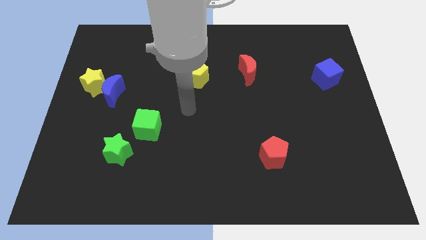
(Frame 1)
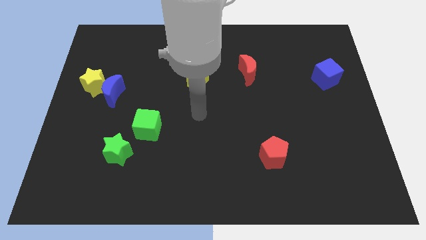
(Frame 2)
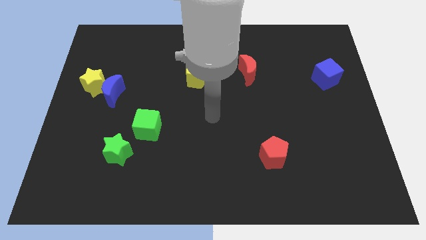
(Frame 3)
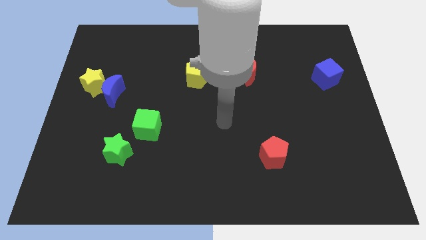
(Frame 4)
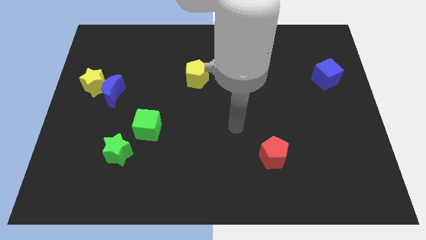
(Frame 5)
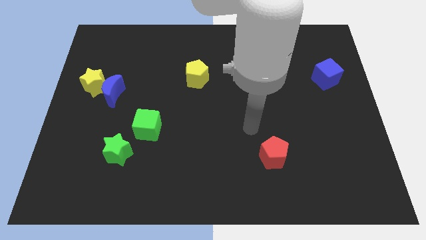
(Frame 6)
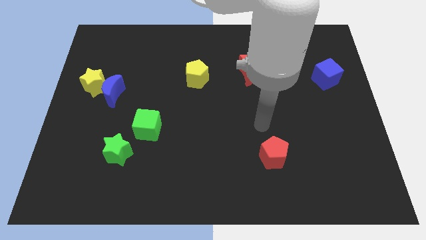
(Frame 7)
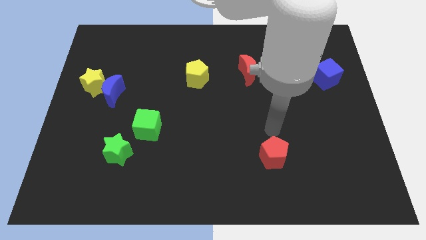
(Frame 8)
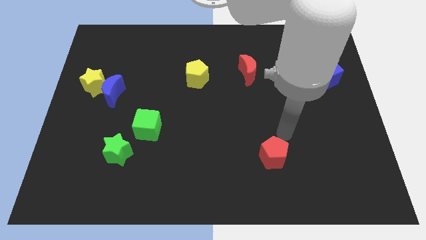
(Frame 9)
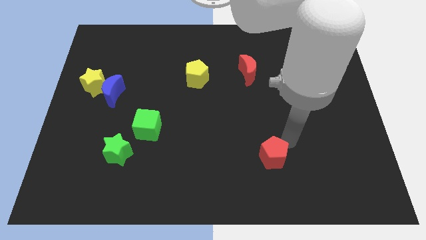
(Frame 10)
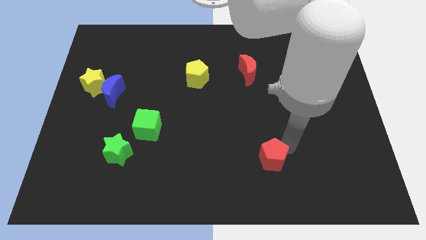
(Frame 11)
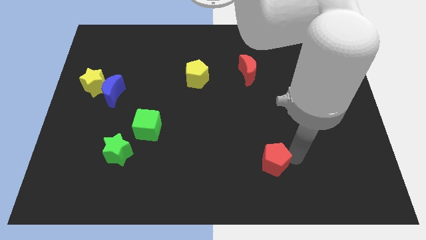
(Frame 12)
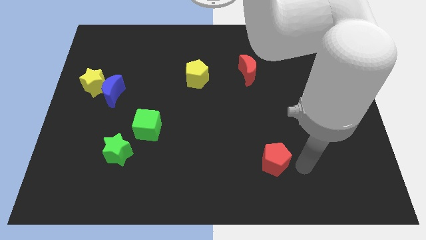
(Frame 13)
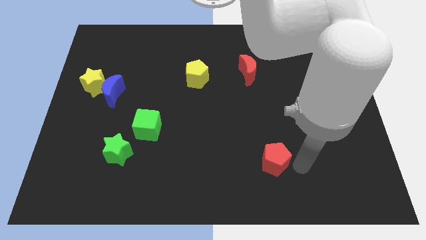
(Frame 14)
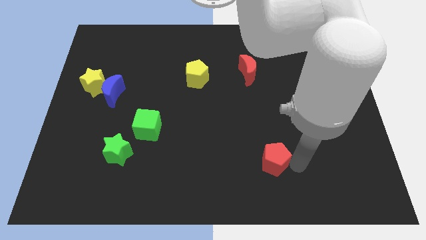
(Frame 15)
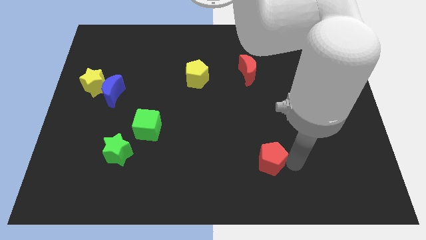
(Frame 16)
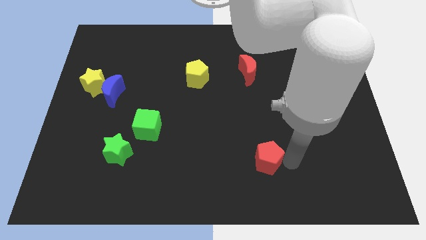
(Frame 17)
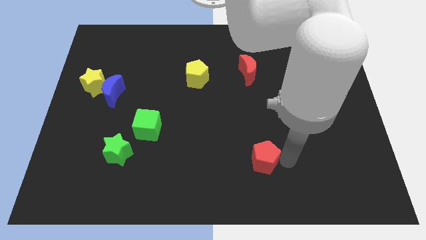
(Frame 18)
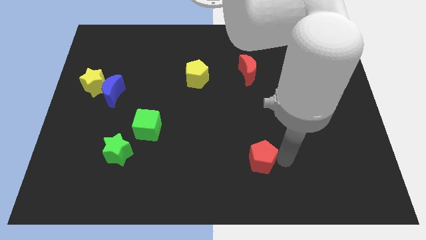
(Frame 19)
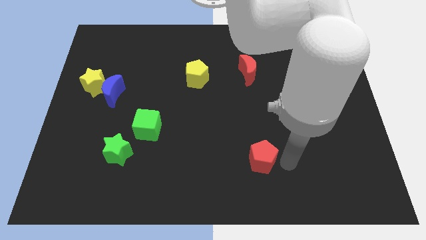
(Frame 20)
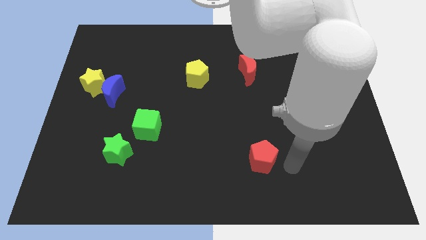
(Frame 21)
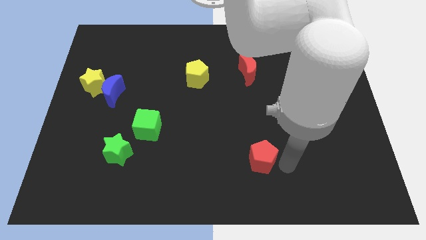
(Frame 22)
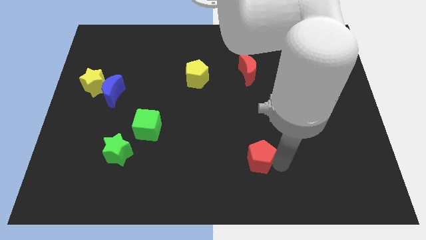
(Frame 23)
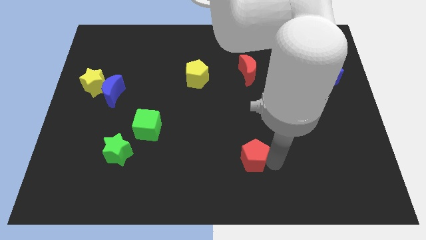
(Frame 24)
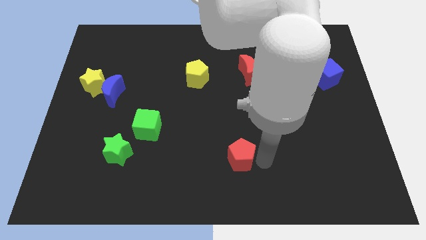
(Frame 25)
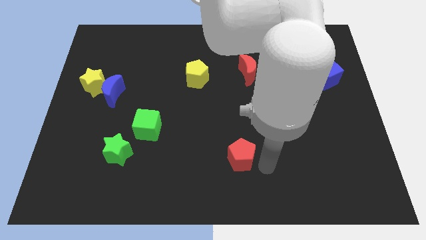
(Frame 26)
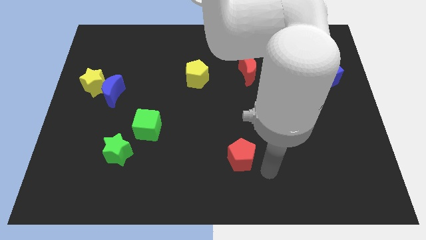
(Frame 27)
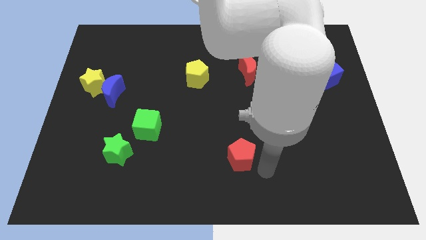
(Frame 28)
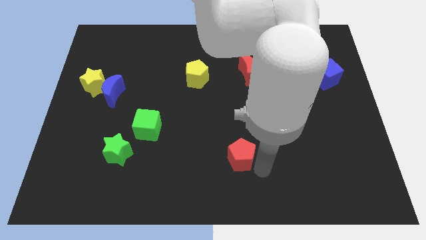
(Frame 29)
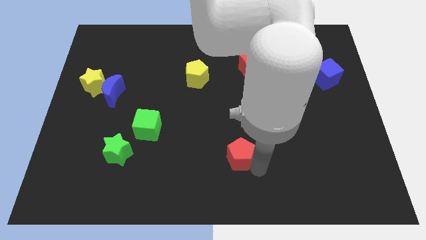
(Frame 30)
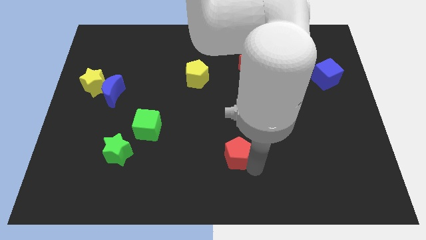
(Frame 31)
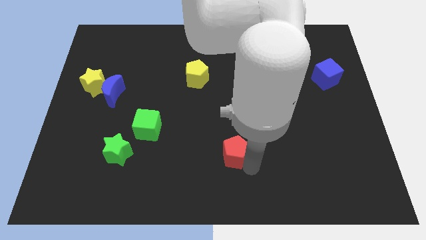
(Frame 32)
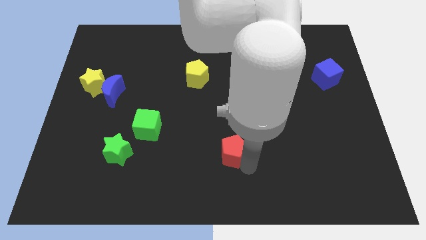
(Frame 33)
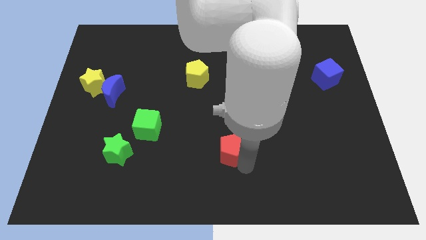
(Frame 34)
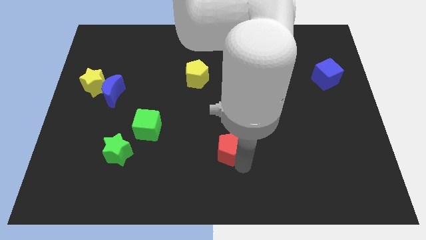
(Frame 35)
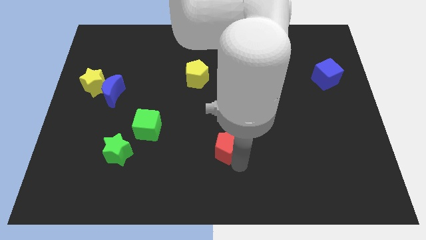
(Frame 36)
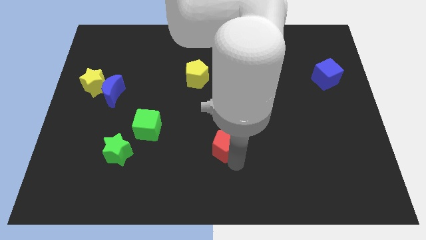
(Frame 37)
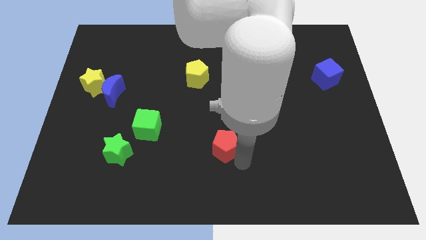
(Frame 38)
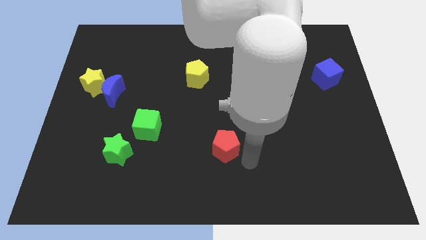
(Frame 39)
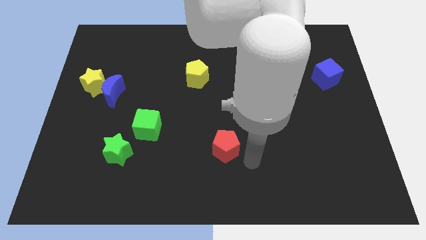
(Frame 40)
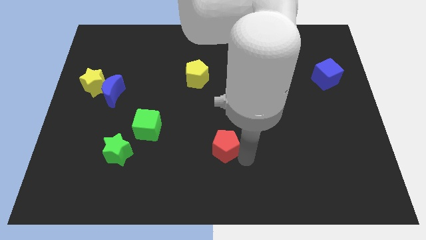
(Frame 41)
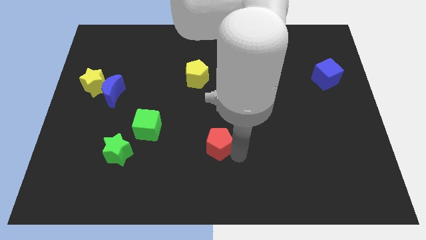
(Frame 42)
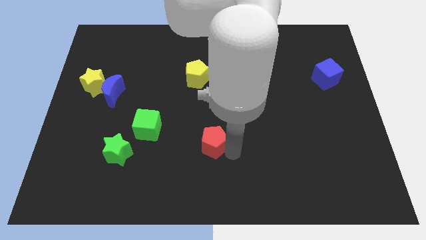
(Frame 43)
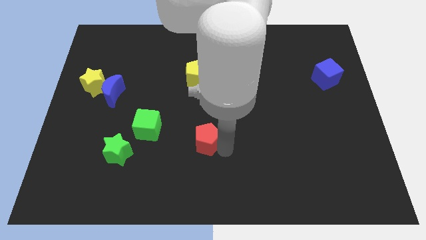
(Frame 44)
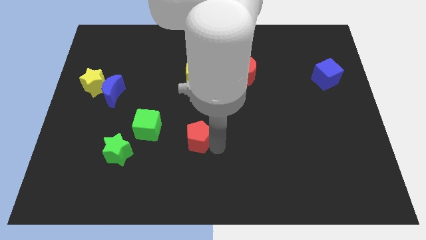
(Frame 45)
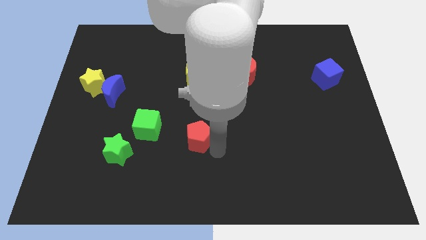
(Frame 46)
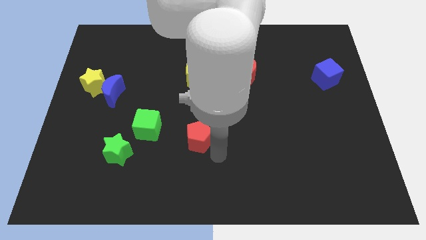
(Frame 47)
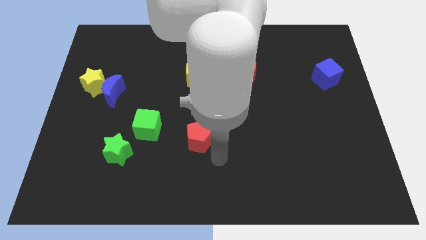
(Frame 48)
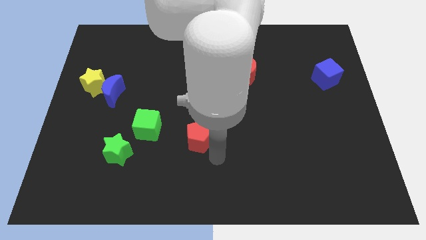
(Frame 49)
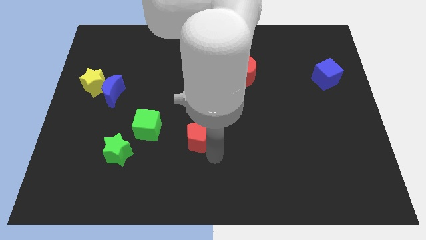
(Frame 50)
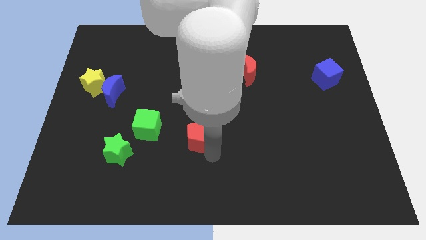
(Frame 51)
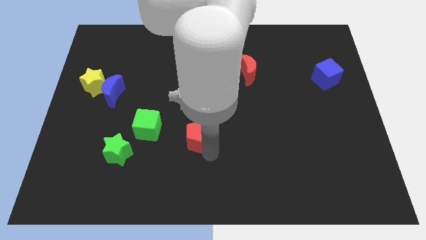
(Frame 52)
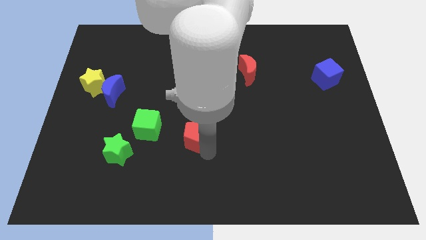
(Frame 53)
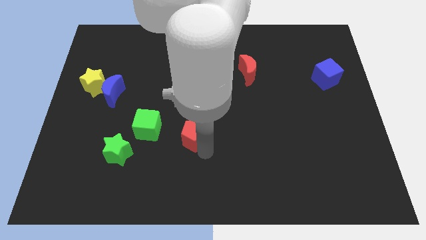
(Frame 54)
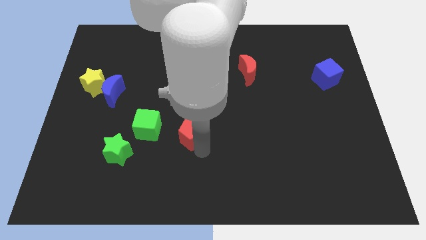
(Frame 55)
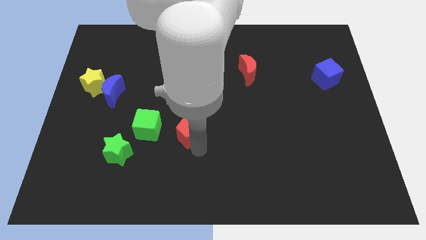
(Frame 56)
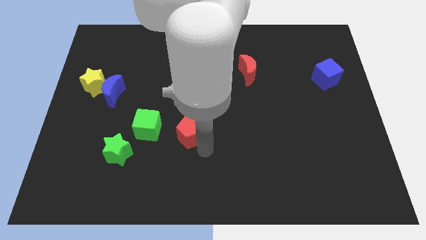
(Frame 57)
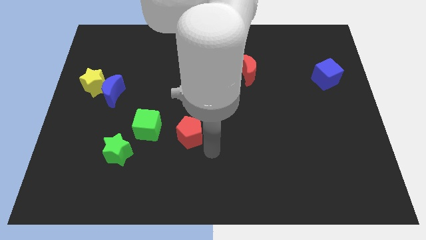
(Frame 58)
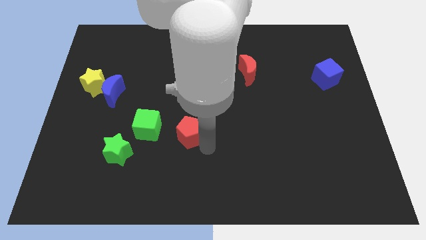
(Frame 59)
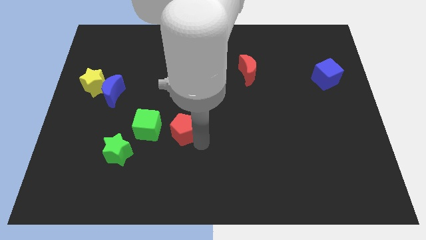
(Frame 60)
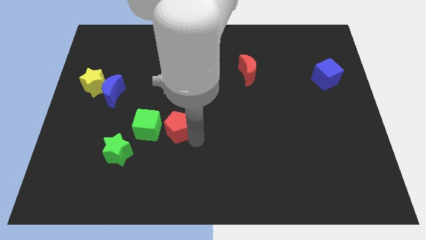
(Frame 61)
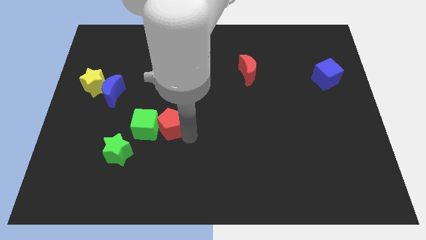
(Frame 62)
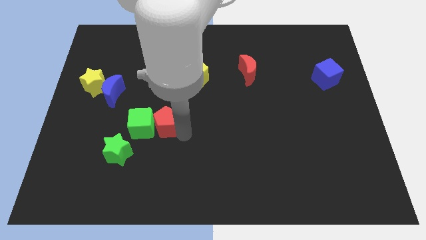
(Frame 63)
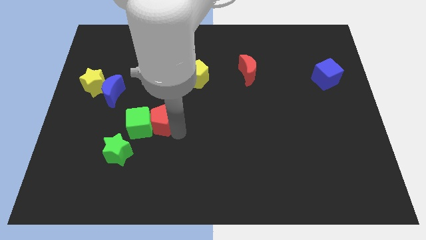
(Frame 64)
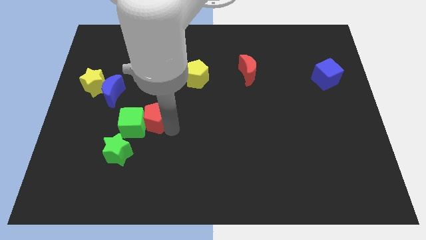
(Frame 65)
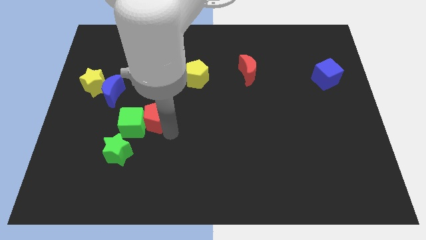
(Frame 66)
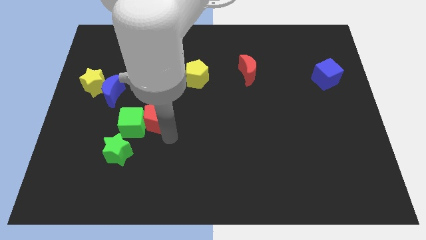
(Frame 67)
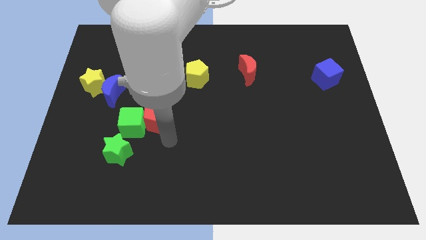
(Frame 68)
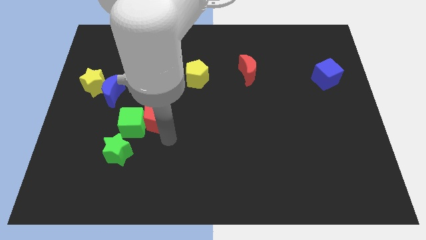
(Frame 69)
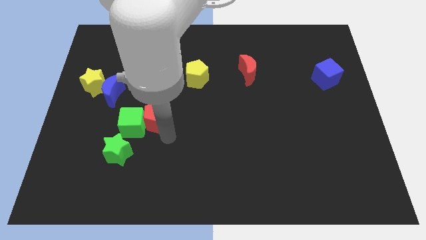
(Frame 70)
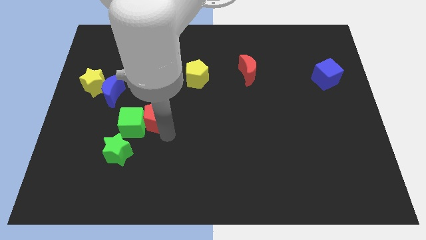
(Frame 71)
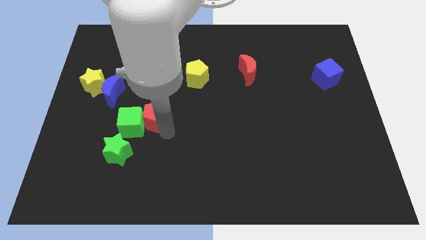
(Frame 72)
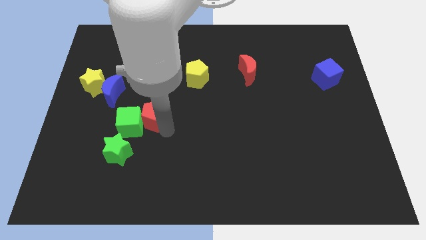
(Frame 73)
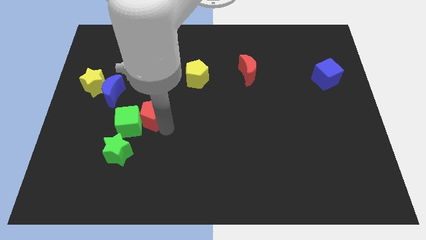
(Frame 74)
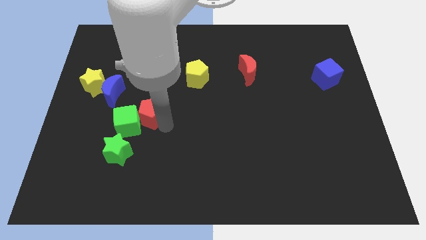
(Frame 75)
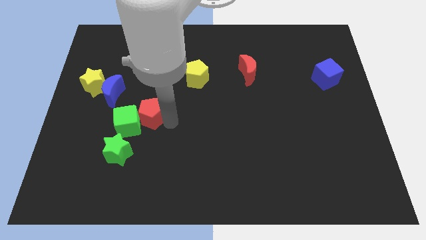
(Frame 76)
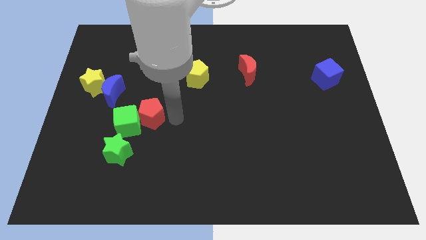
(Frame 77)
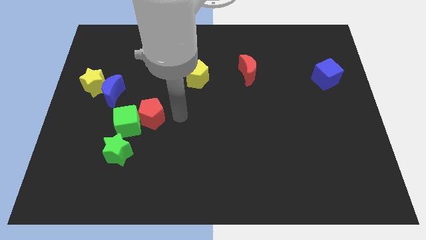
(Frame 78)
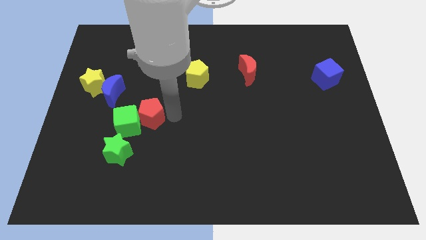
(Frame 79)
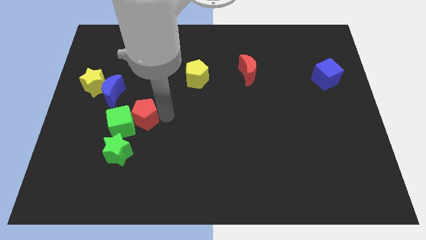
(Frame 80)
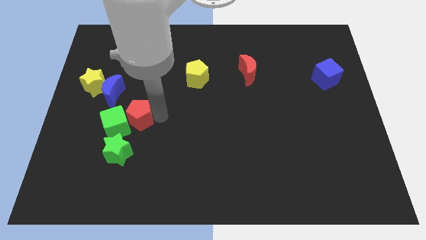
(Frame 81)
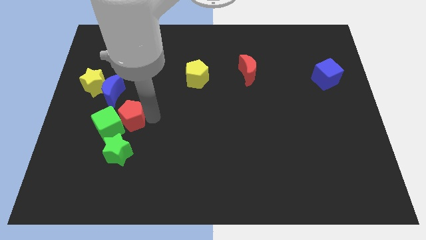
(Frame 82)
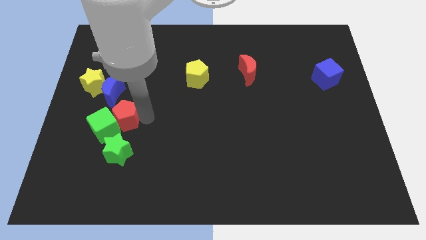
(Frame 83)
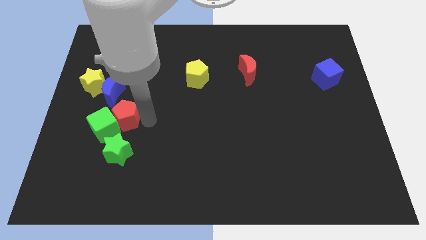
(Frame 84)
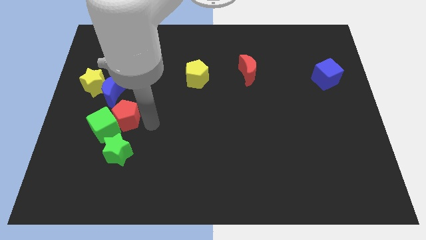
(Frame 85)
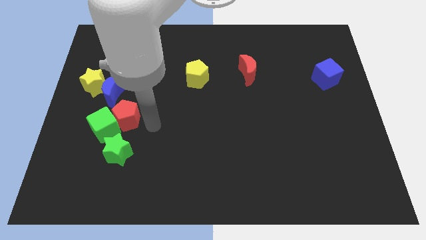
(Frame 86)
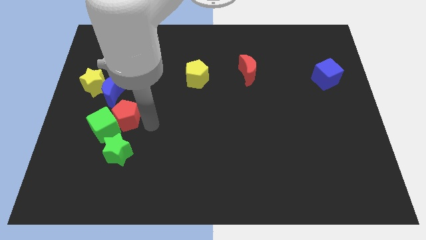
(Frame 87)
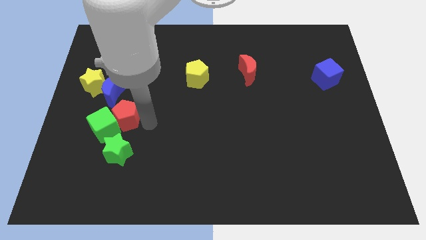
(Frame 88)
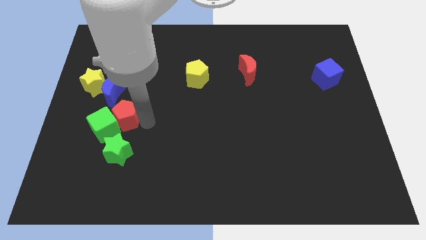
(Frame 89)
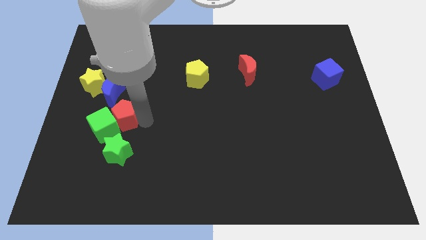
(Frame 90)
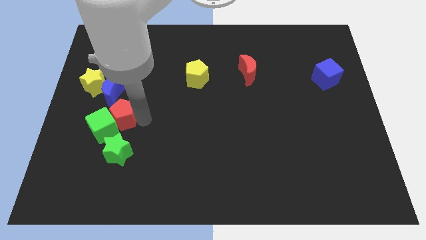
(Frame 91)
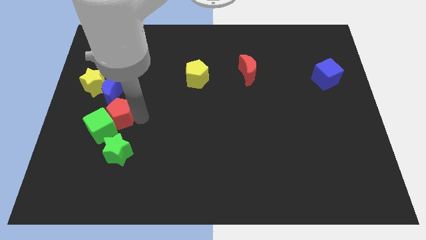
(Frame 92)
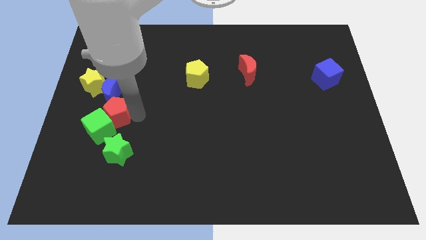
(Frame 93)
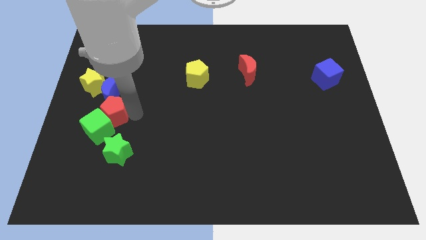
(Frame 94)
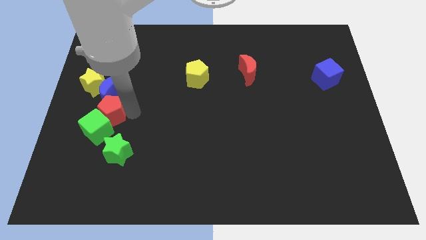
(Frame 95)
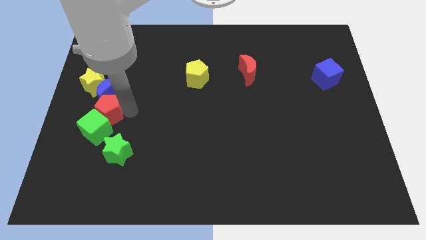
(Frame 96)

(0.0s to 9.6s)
put the red pentagon below the yellow star
